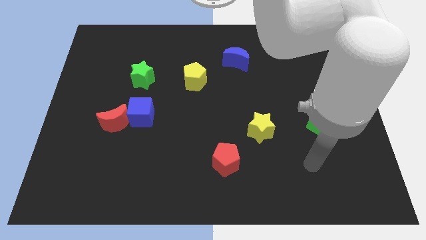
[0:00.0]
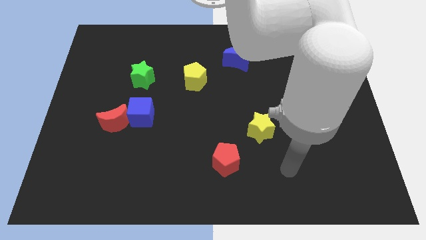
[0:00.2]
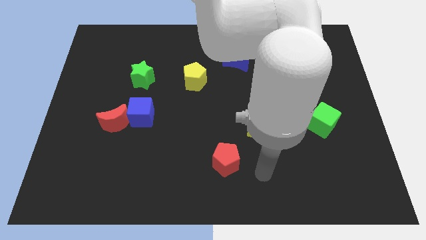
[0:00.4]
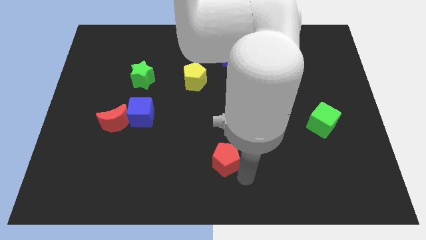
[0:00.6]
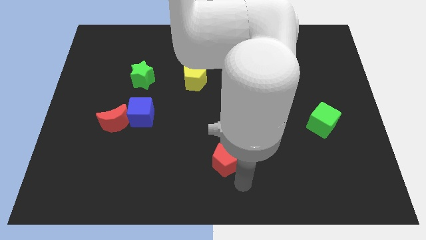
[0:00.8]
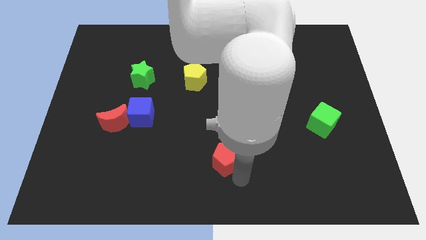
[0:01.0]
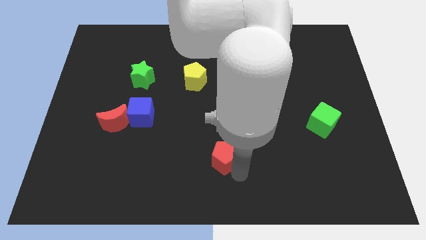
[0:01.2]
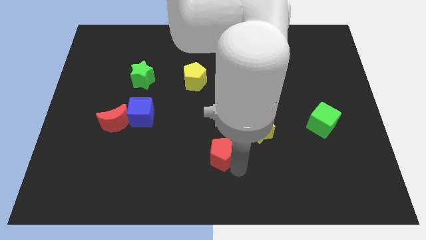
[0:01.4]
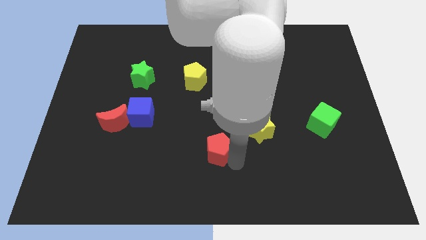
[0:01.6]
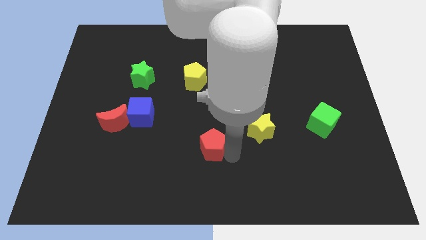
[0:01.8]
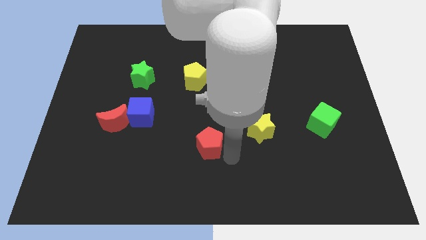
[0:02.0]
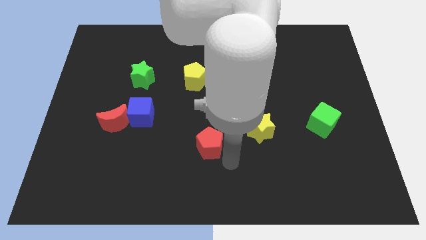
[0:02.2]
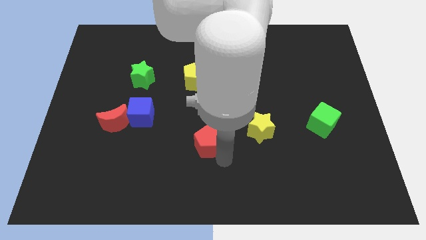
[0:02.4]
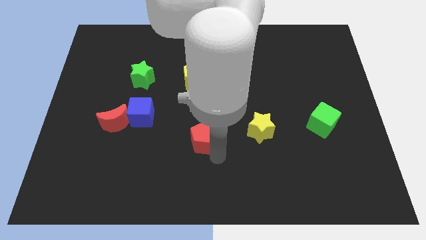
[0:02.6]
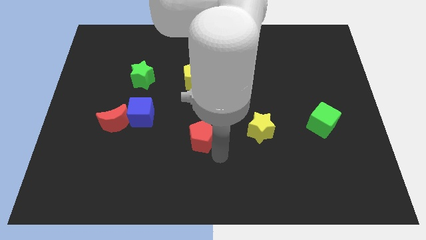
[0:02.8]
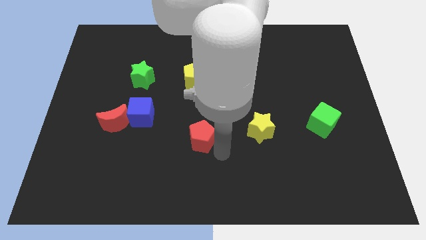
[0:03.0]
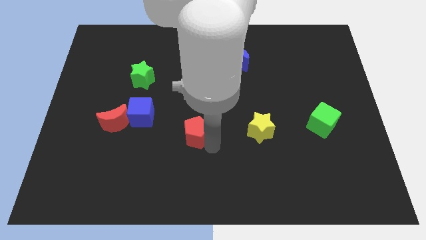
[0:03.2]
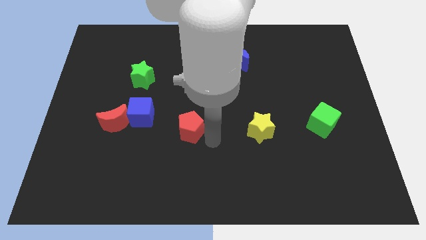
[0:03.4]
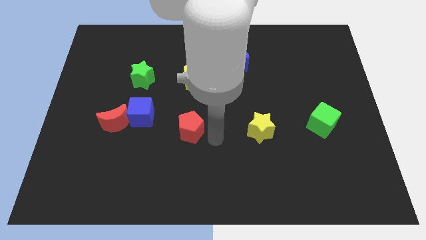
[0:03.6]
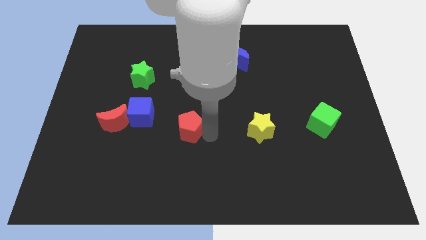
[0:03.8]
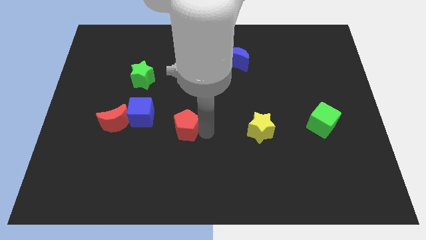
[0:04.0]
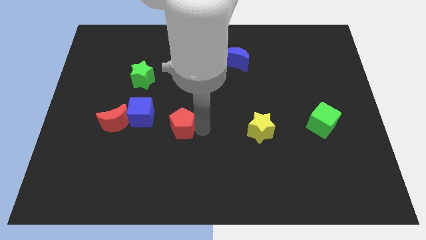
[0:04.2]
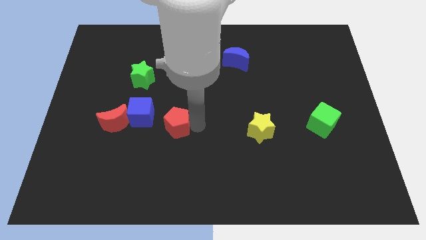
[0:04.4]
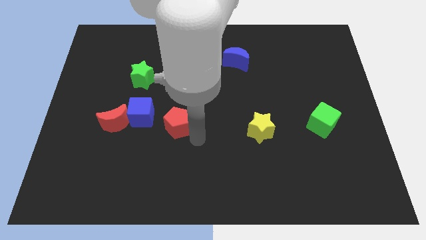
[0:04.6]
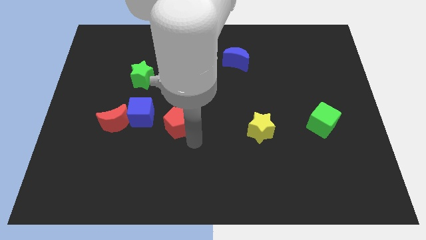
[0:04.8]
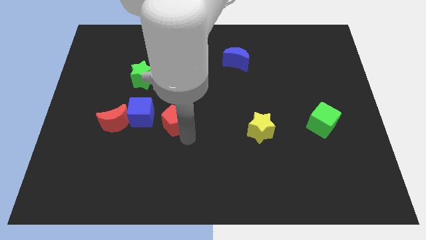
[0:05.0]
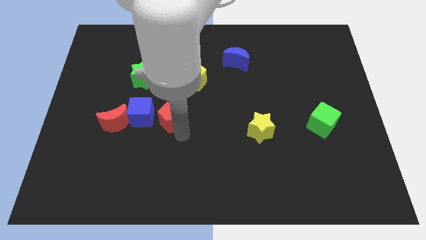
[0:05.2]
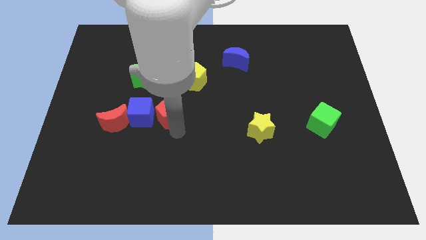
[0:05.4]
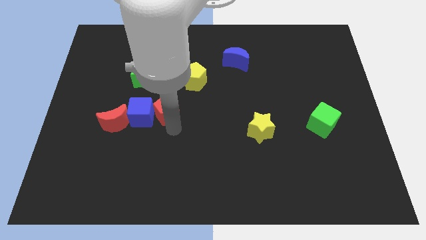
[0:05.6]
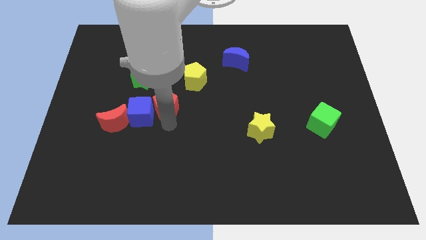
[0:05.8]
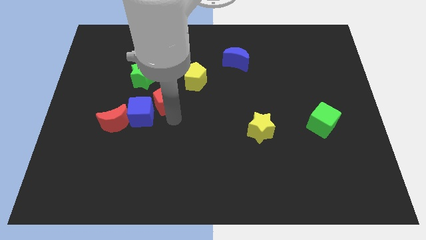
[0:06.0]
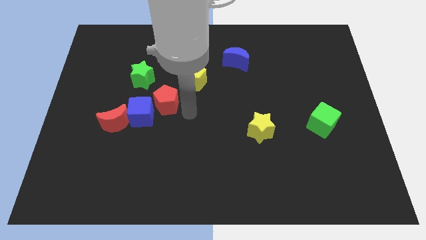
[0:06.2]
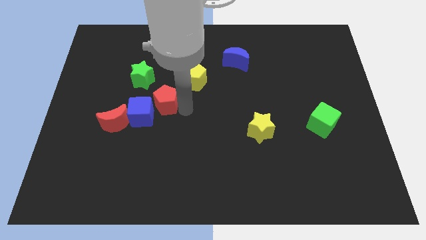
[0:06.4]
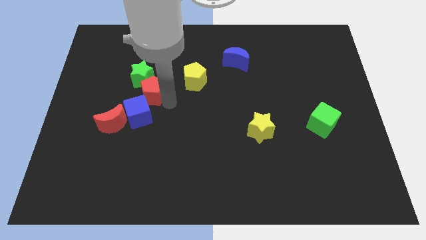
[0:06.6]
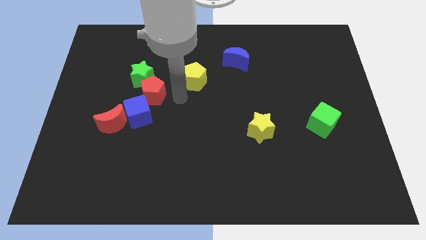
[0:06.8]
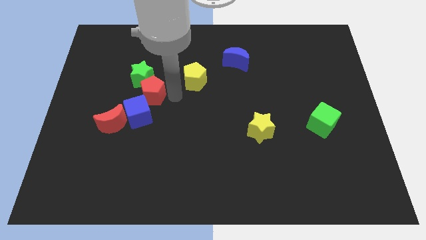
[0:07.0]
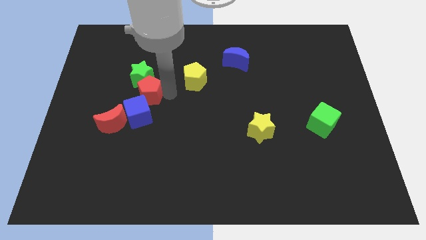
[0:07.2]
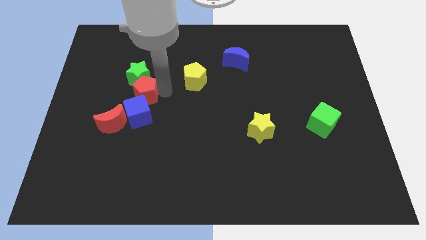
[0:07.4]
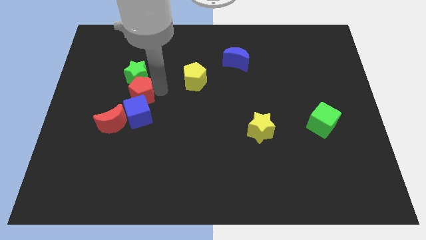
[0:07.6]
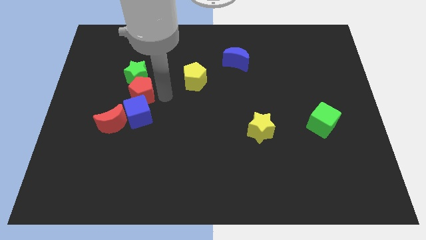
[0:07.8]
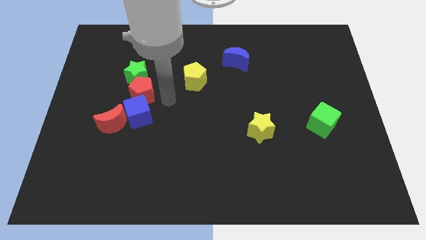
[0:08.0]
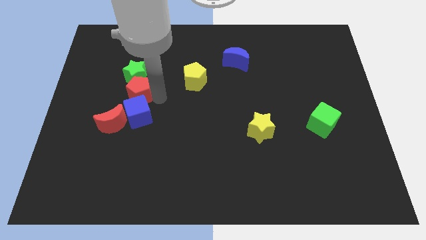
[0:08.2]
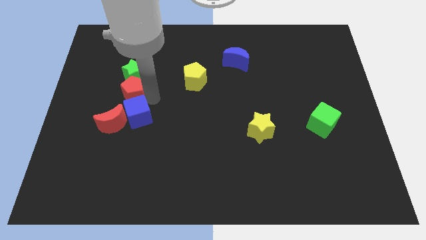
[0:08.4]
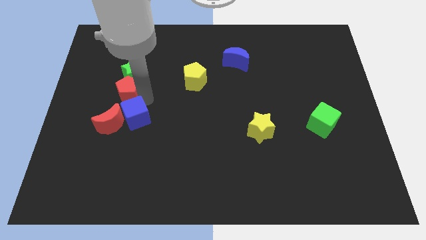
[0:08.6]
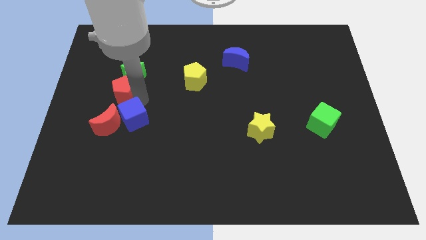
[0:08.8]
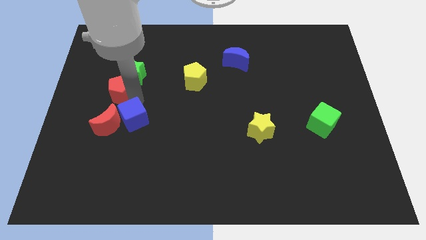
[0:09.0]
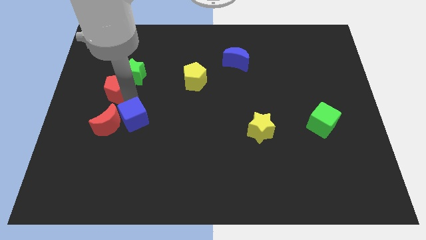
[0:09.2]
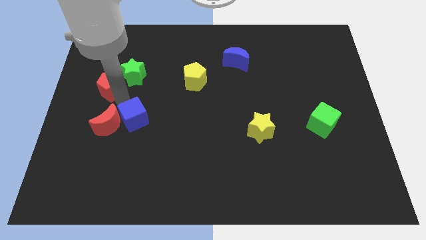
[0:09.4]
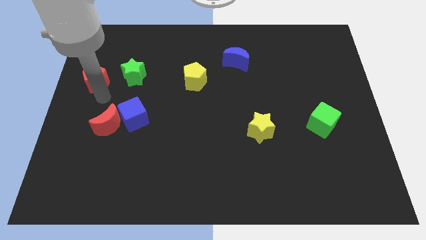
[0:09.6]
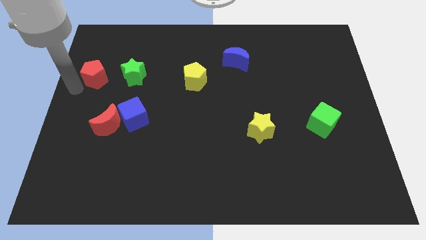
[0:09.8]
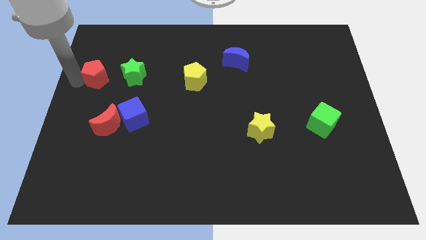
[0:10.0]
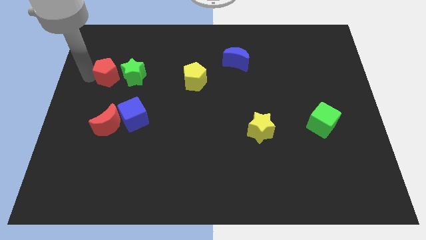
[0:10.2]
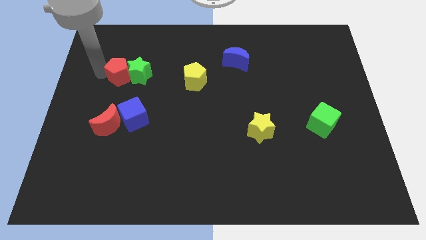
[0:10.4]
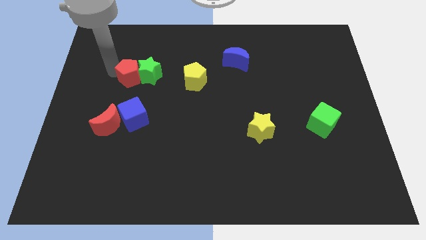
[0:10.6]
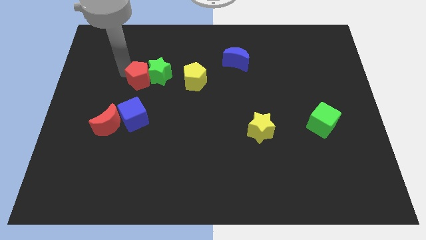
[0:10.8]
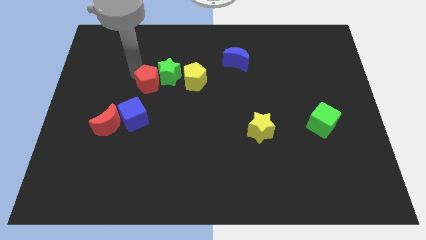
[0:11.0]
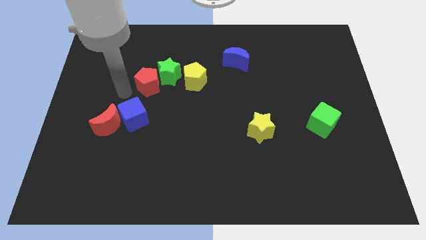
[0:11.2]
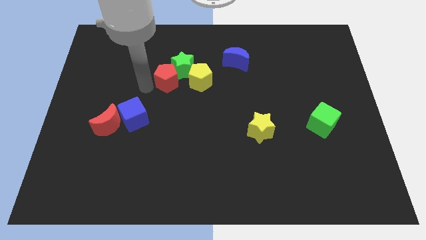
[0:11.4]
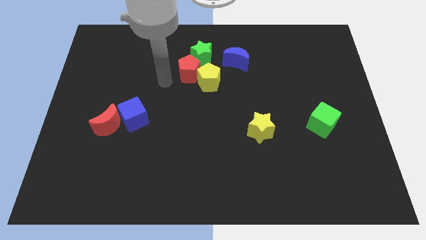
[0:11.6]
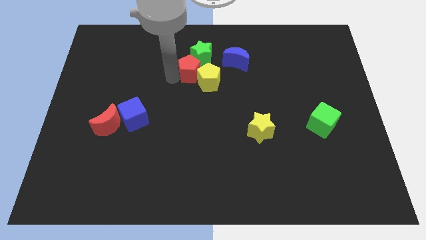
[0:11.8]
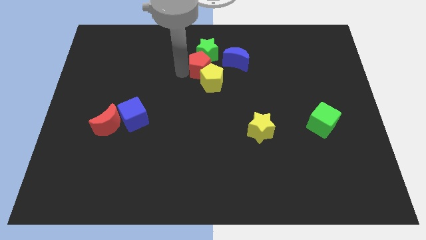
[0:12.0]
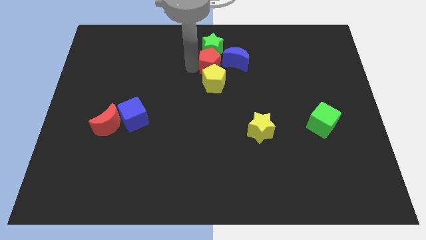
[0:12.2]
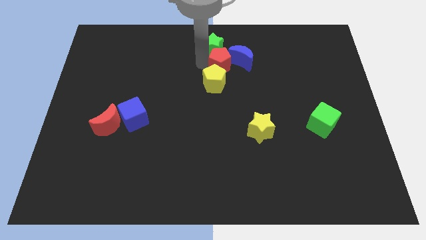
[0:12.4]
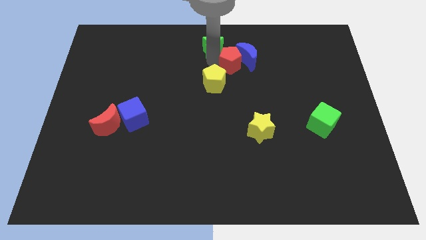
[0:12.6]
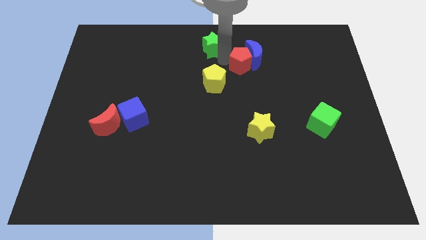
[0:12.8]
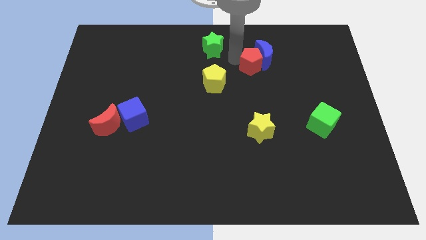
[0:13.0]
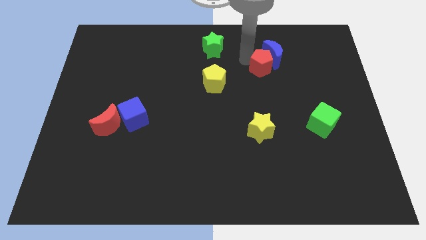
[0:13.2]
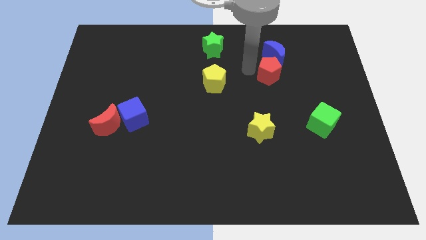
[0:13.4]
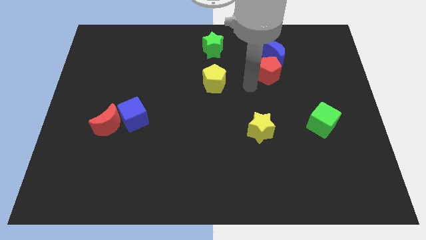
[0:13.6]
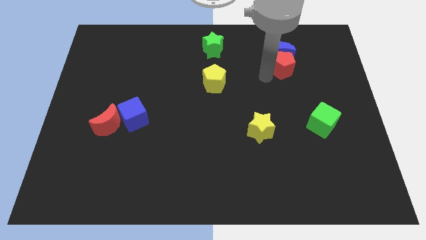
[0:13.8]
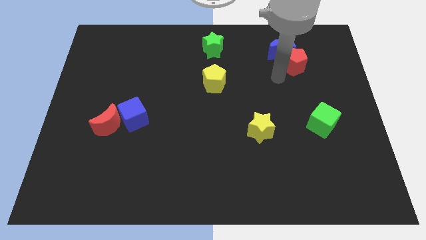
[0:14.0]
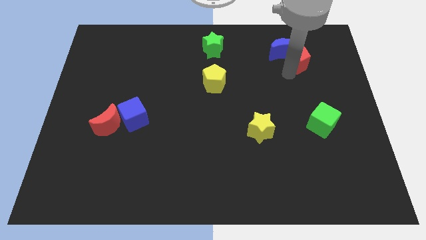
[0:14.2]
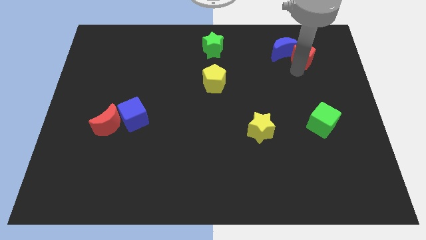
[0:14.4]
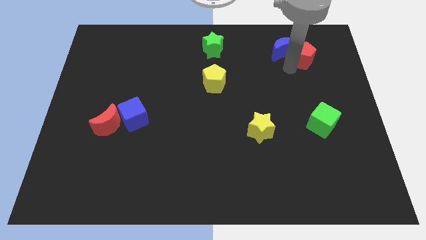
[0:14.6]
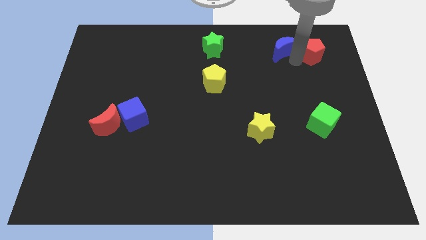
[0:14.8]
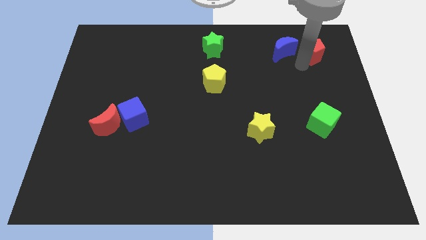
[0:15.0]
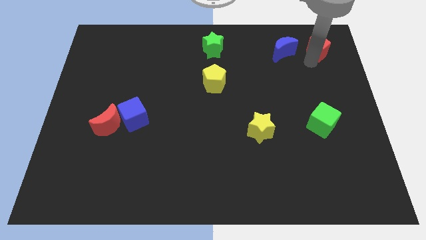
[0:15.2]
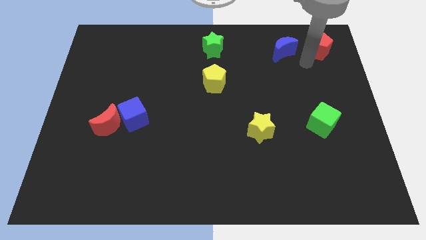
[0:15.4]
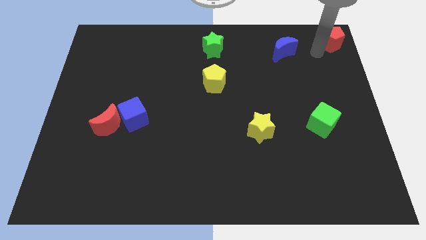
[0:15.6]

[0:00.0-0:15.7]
slide the red pentagon to the top right corner
